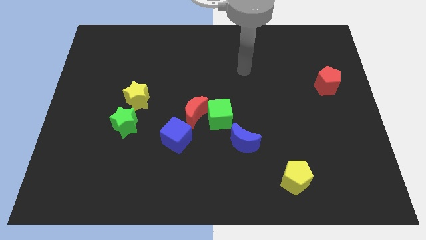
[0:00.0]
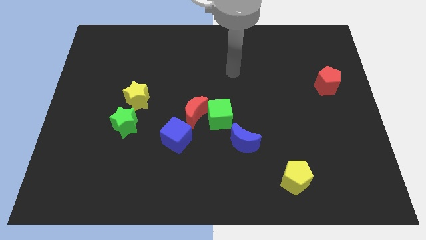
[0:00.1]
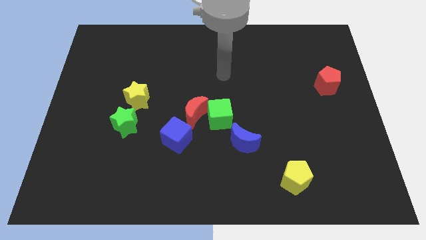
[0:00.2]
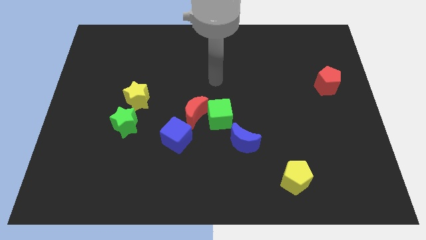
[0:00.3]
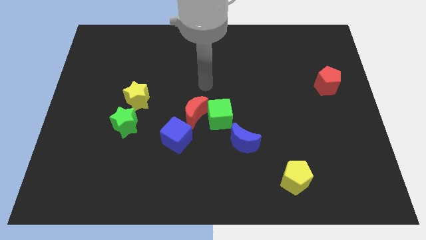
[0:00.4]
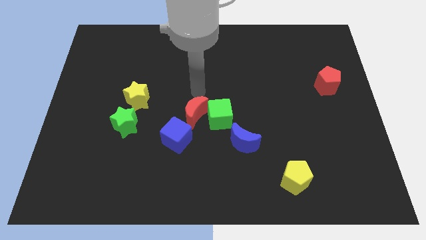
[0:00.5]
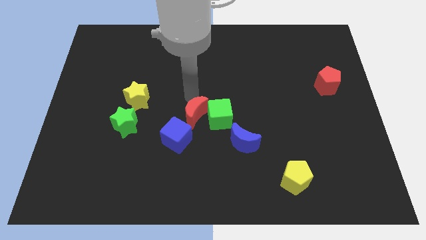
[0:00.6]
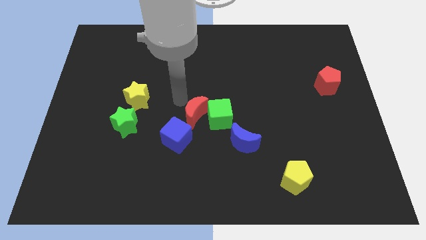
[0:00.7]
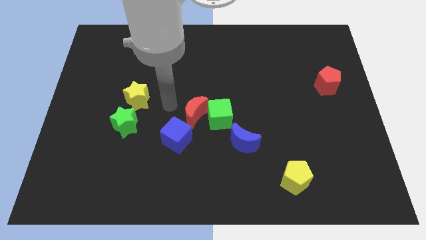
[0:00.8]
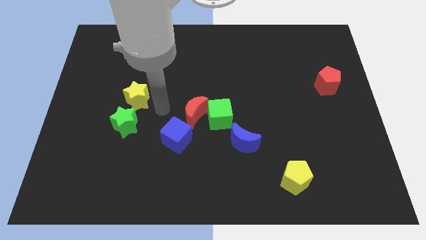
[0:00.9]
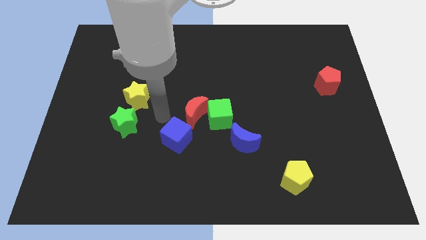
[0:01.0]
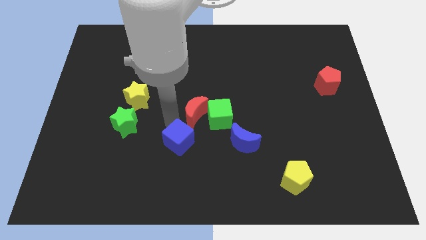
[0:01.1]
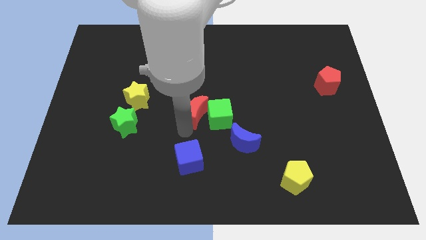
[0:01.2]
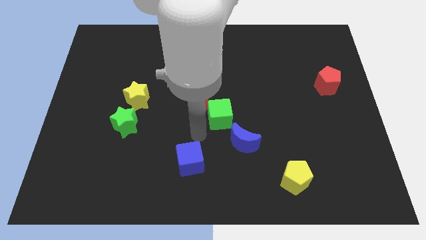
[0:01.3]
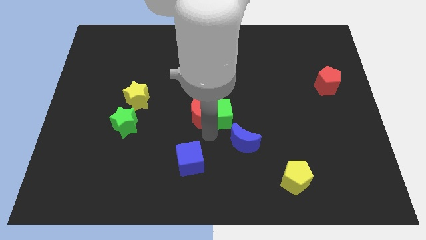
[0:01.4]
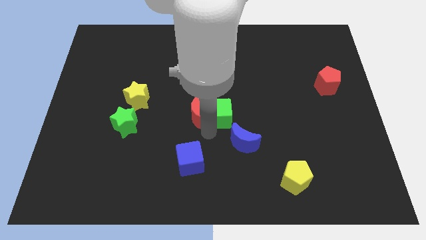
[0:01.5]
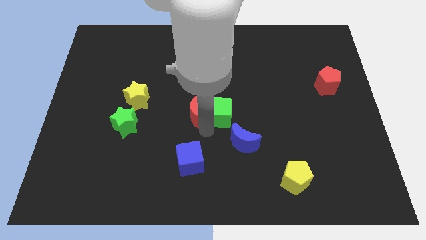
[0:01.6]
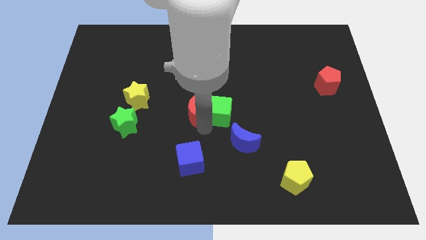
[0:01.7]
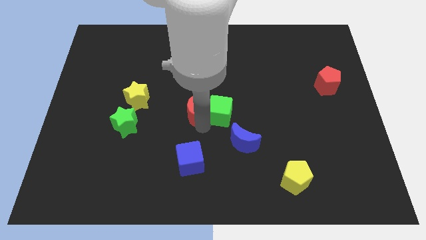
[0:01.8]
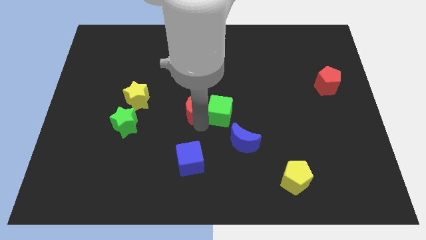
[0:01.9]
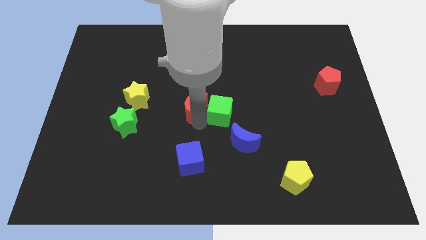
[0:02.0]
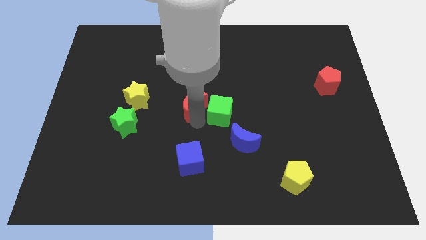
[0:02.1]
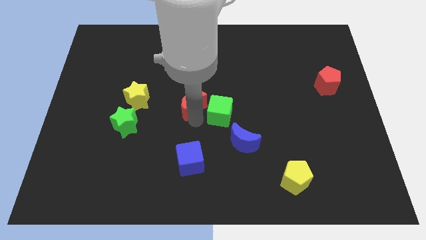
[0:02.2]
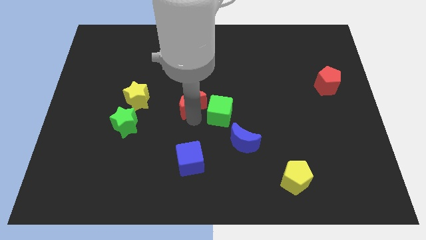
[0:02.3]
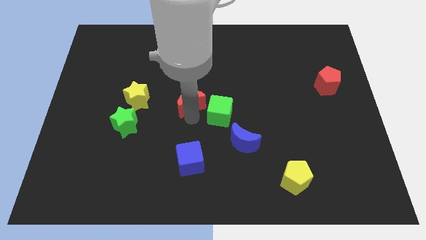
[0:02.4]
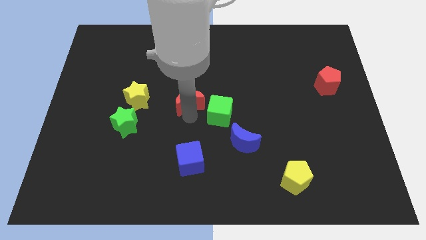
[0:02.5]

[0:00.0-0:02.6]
move the red moon away from the green cube and blue cube

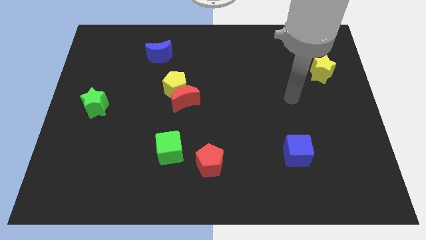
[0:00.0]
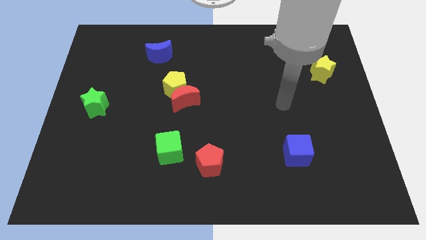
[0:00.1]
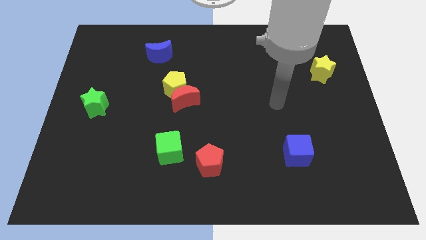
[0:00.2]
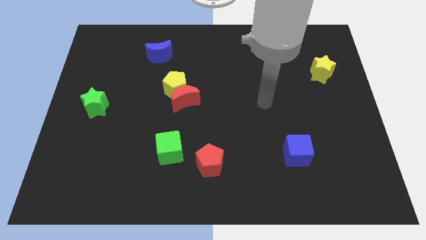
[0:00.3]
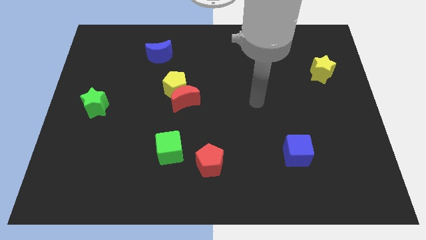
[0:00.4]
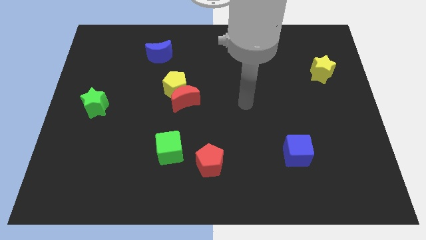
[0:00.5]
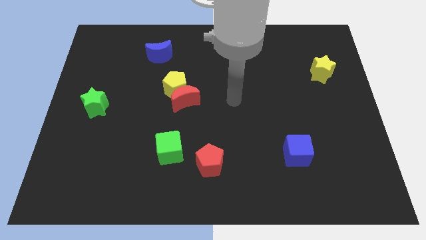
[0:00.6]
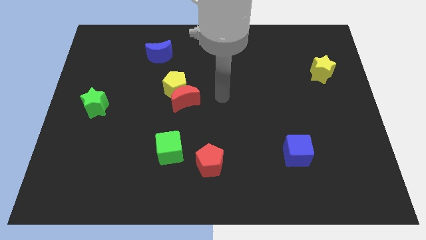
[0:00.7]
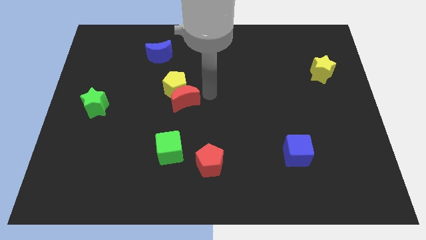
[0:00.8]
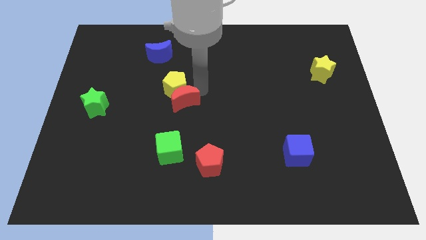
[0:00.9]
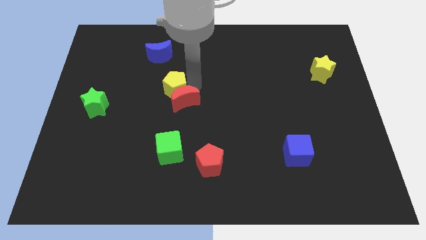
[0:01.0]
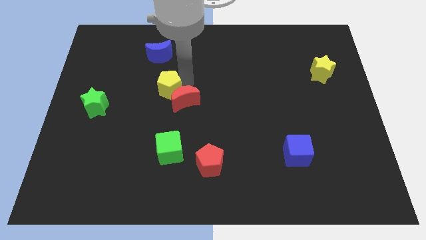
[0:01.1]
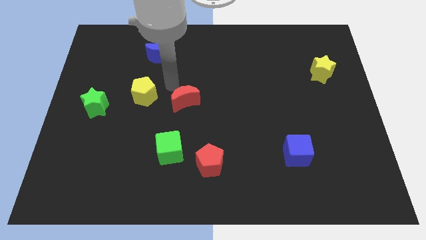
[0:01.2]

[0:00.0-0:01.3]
move the red moon away from the yellow pentagon

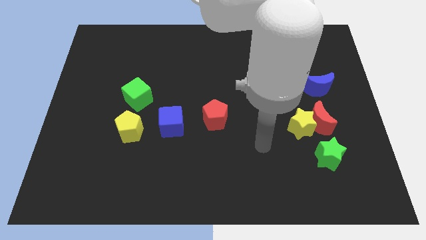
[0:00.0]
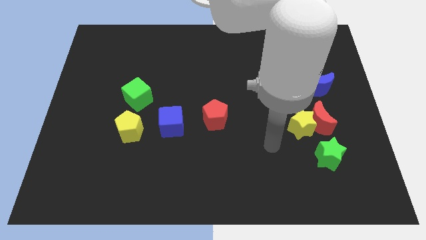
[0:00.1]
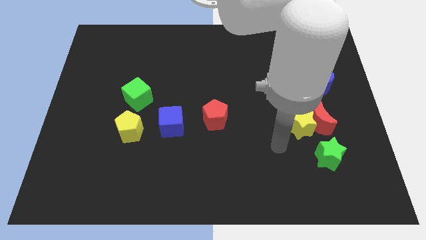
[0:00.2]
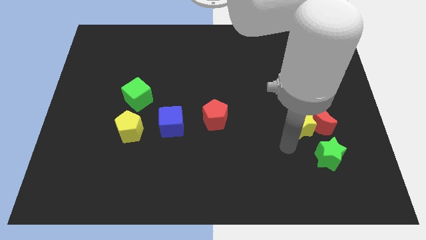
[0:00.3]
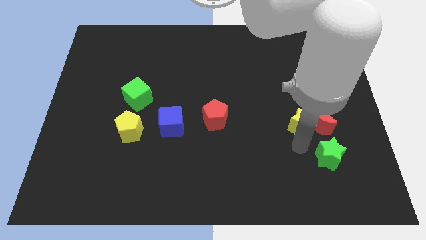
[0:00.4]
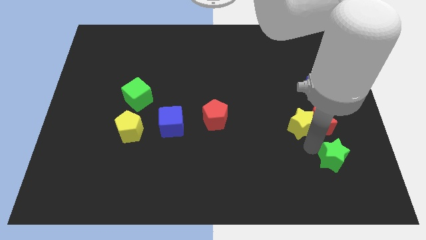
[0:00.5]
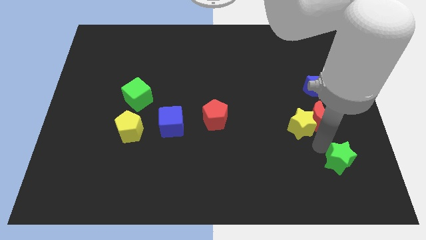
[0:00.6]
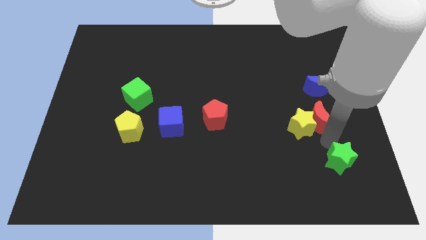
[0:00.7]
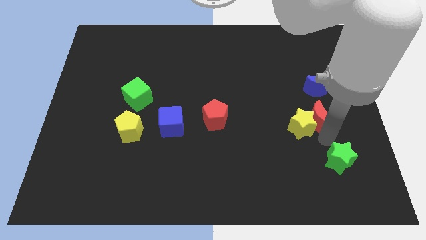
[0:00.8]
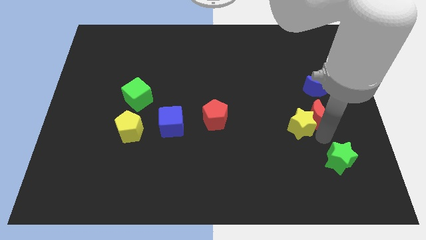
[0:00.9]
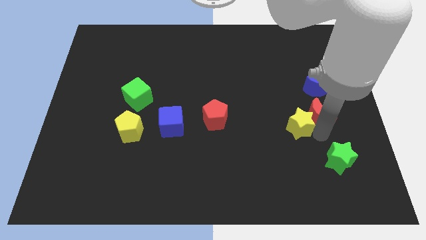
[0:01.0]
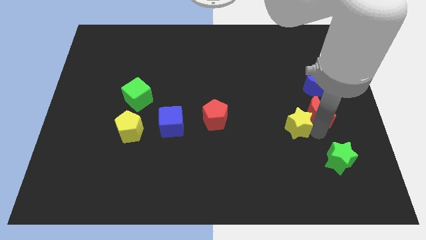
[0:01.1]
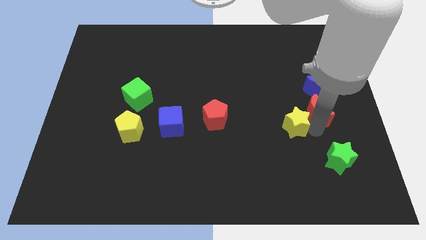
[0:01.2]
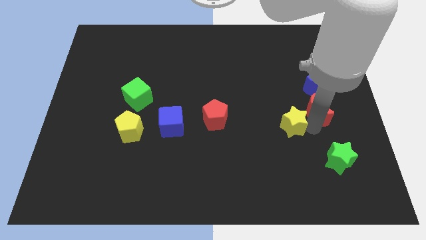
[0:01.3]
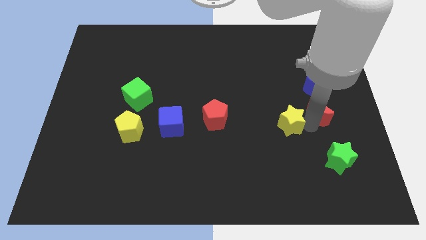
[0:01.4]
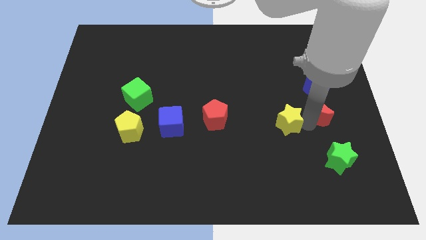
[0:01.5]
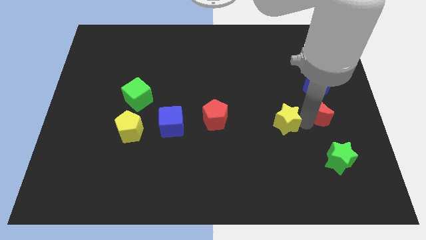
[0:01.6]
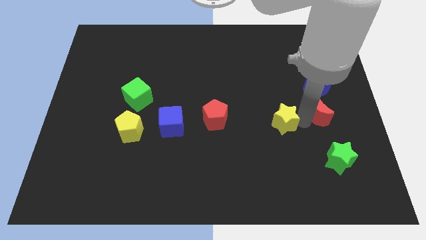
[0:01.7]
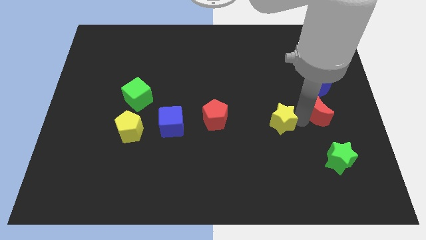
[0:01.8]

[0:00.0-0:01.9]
pull the yellow star apart from the red moon and green star

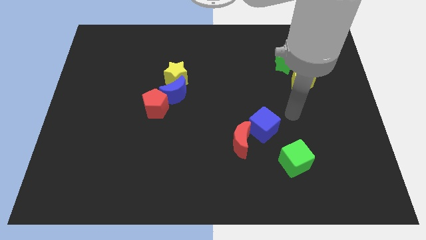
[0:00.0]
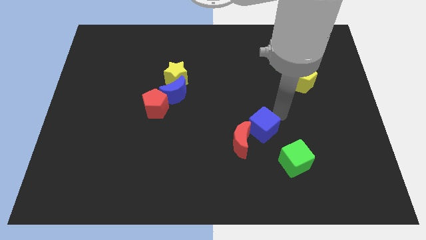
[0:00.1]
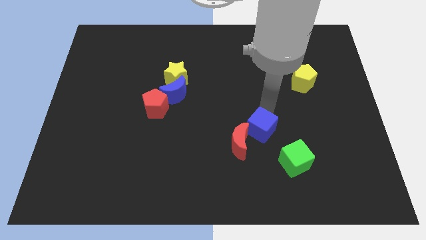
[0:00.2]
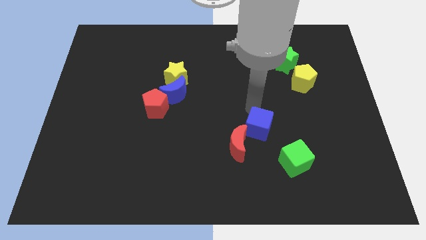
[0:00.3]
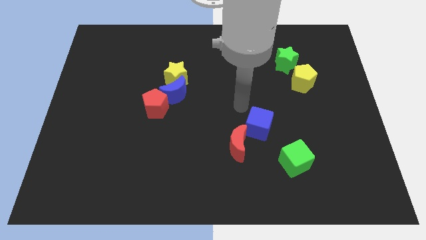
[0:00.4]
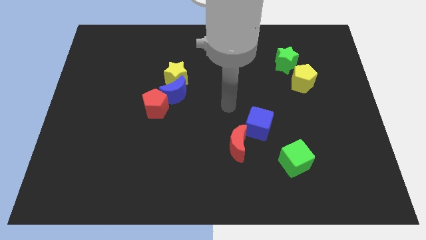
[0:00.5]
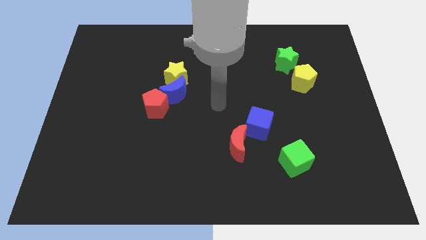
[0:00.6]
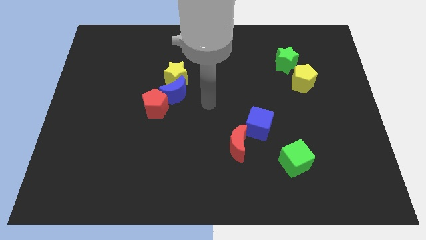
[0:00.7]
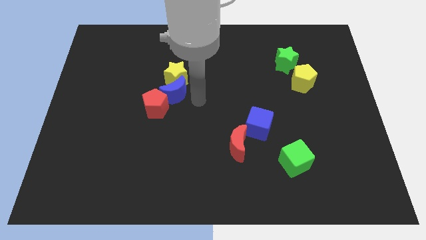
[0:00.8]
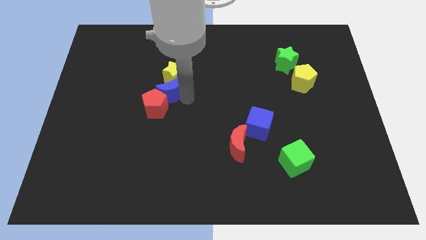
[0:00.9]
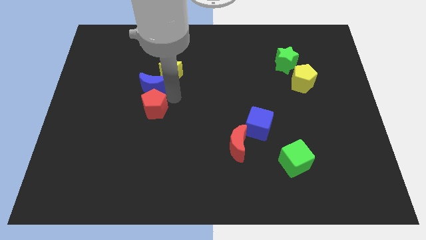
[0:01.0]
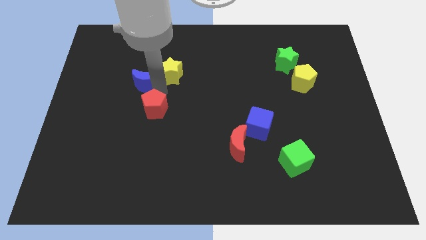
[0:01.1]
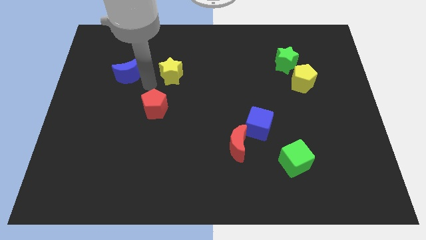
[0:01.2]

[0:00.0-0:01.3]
move the yellow star away from the blue moon

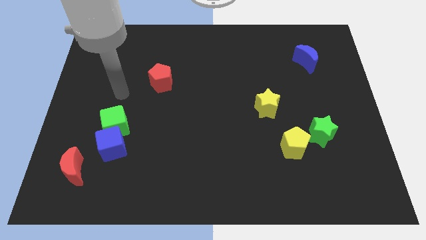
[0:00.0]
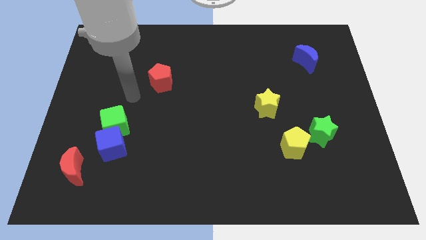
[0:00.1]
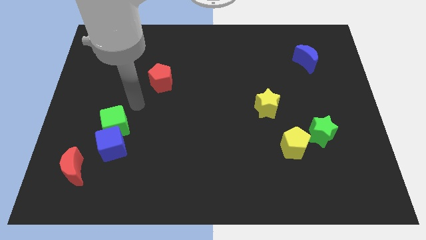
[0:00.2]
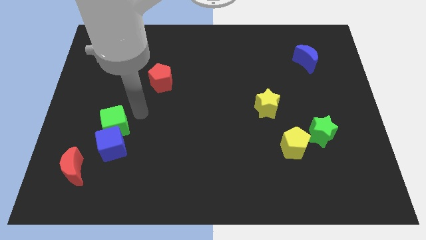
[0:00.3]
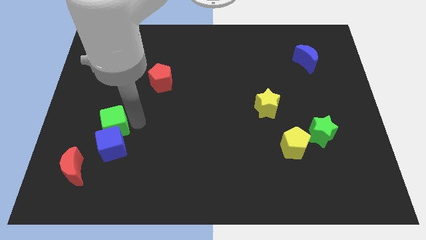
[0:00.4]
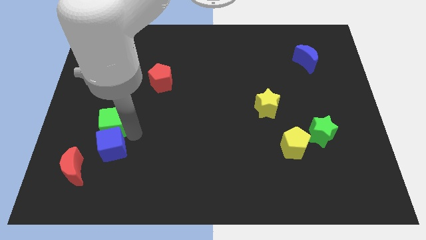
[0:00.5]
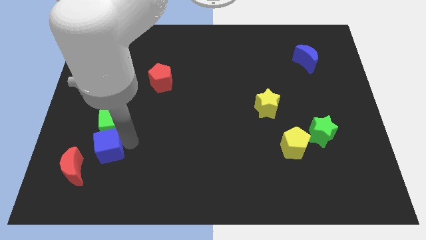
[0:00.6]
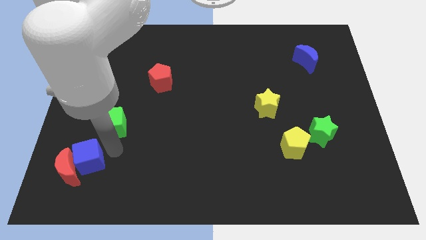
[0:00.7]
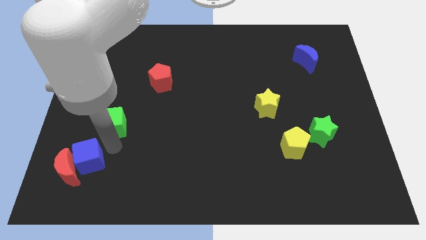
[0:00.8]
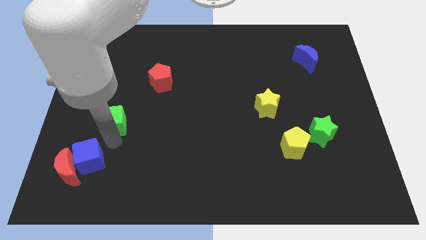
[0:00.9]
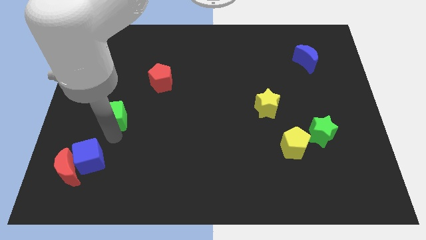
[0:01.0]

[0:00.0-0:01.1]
move the green cube away from the blue cube

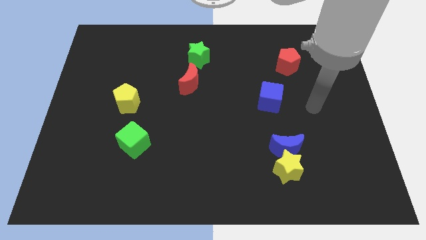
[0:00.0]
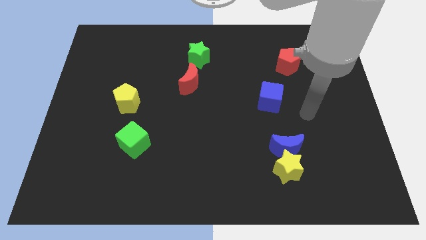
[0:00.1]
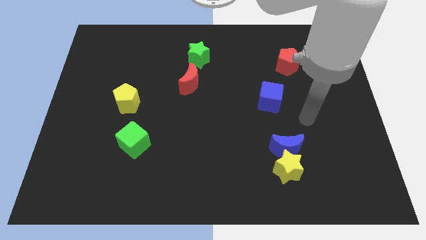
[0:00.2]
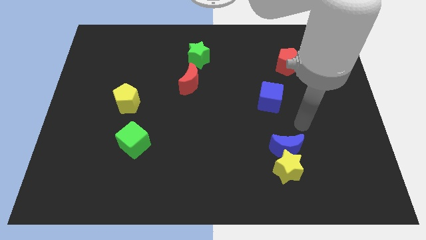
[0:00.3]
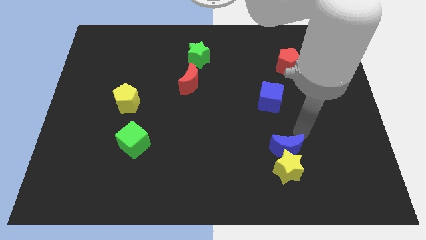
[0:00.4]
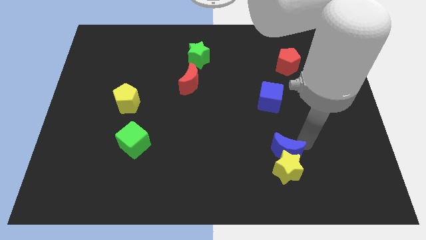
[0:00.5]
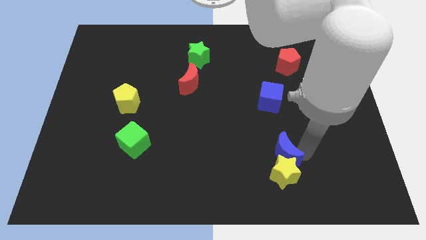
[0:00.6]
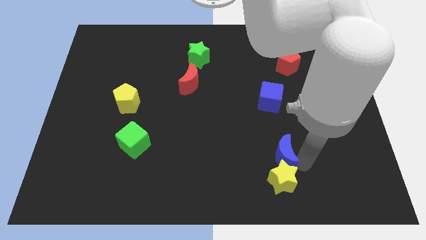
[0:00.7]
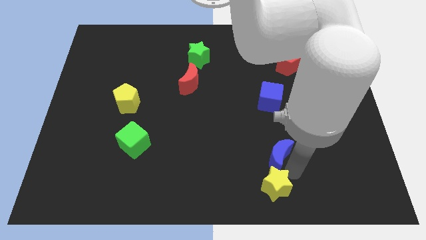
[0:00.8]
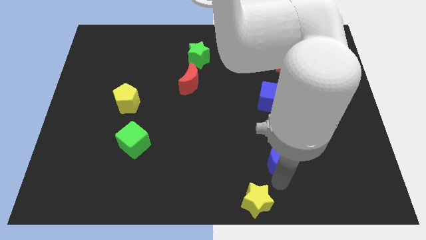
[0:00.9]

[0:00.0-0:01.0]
move the blue moon away from the yellow star

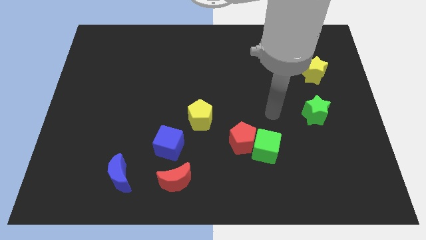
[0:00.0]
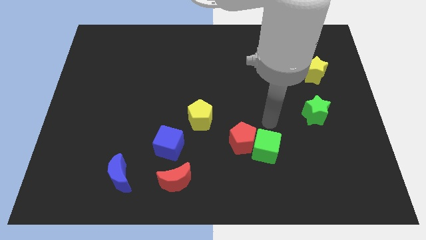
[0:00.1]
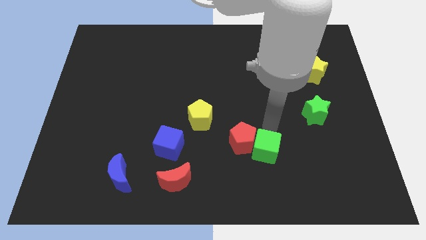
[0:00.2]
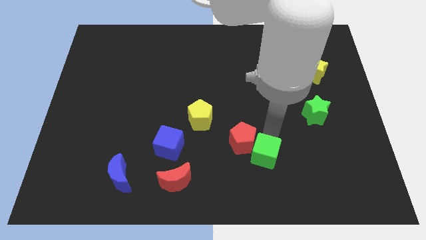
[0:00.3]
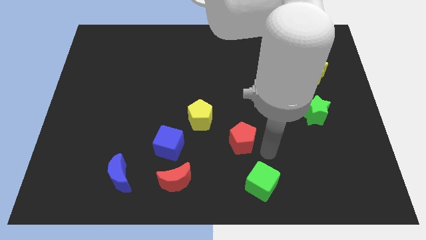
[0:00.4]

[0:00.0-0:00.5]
move the red pentagon away from the green cube
